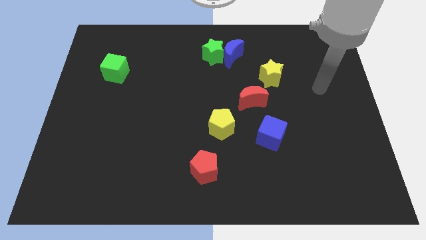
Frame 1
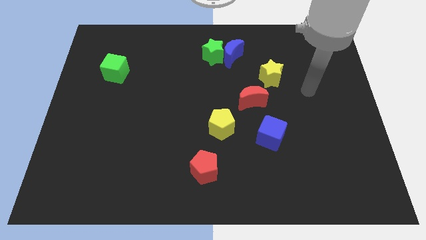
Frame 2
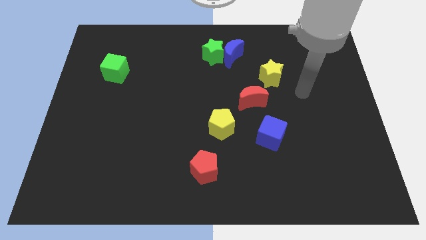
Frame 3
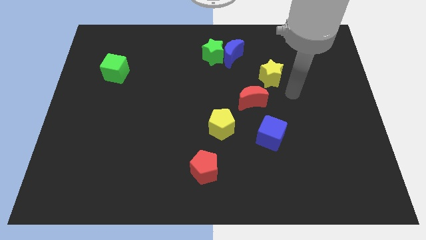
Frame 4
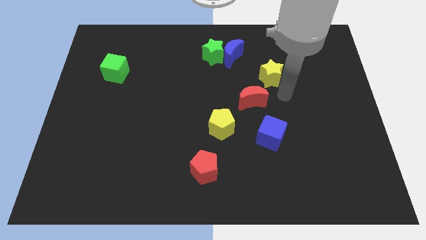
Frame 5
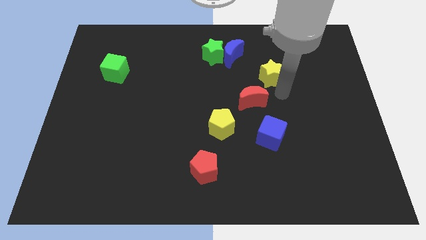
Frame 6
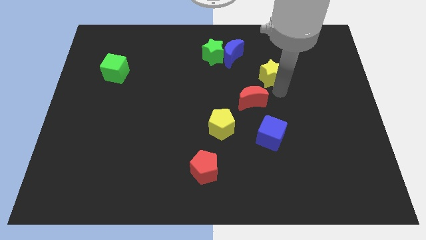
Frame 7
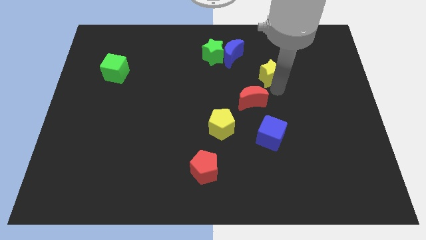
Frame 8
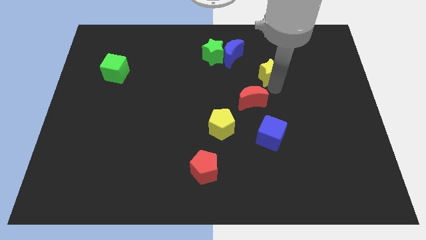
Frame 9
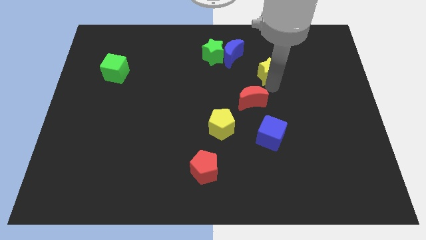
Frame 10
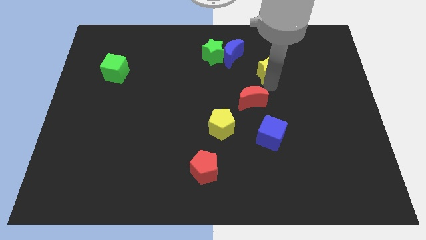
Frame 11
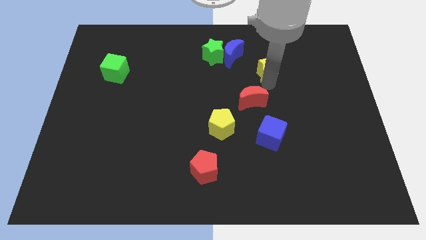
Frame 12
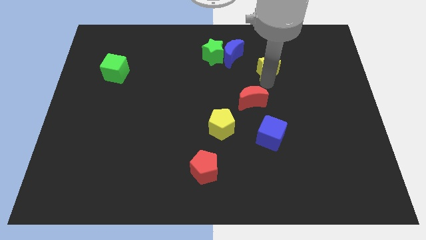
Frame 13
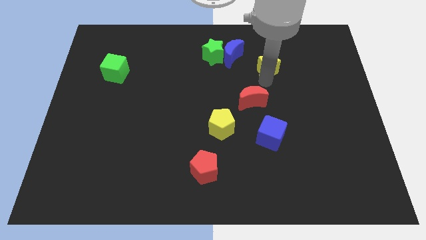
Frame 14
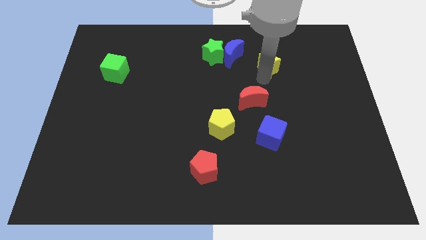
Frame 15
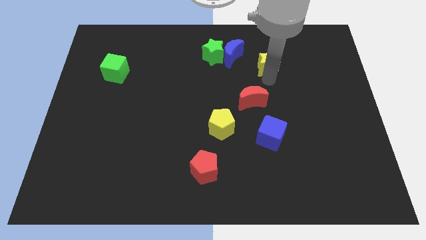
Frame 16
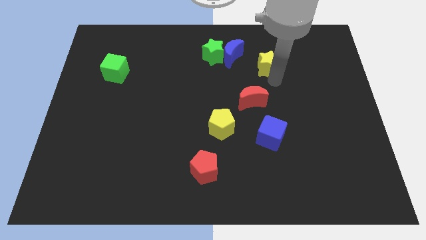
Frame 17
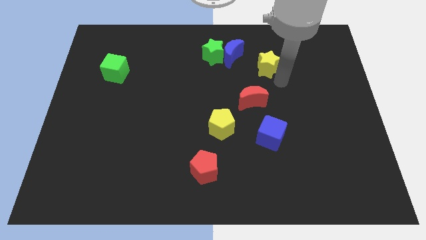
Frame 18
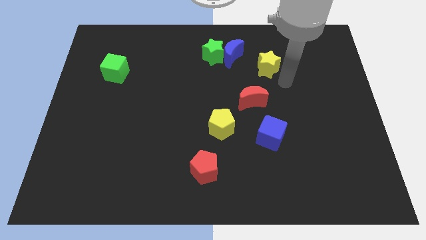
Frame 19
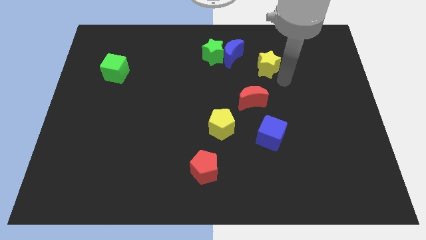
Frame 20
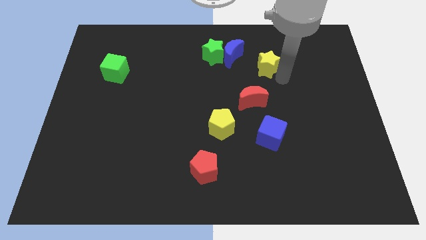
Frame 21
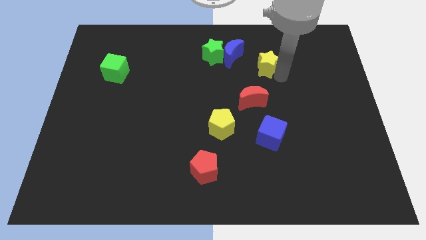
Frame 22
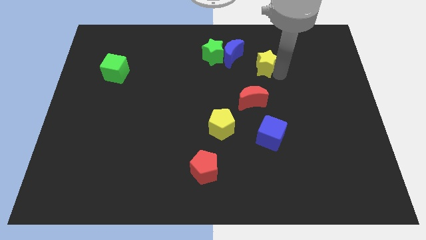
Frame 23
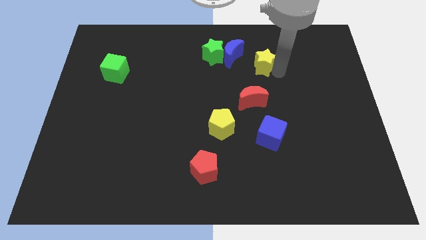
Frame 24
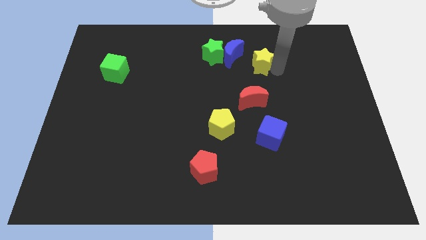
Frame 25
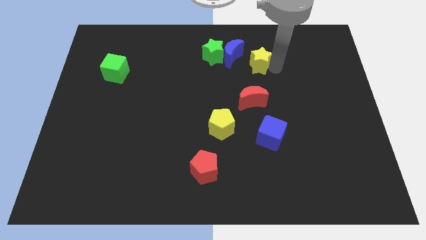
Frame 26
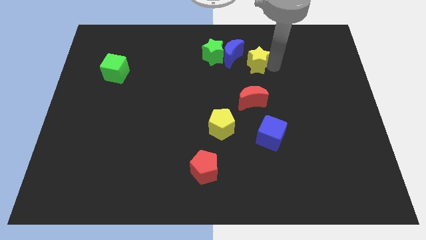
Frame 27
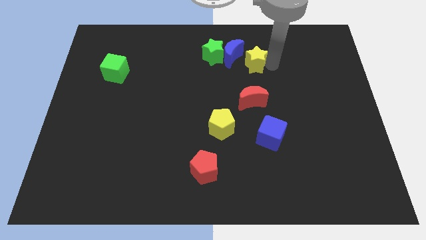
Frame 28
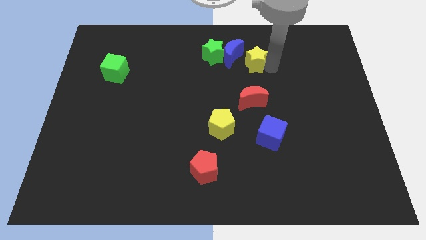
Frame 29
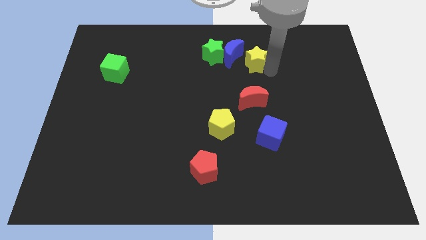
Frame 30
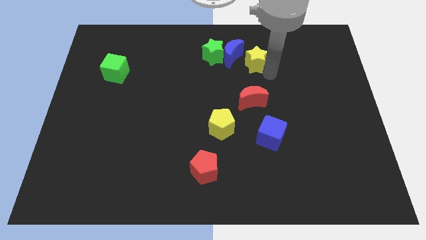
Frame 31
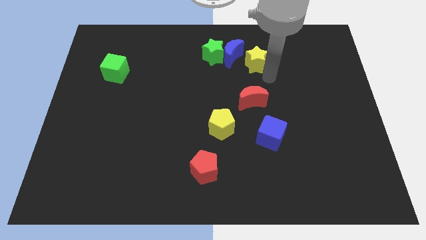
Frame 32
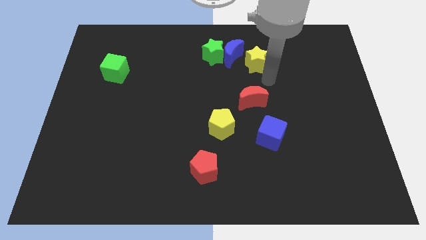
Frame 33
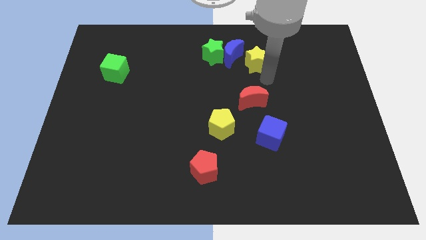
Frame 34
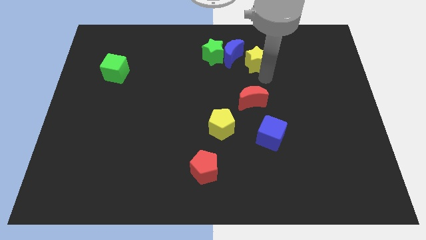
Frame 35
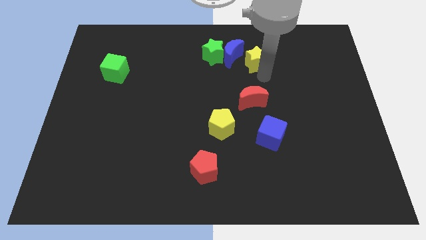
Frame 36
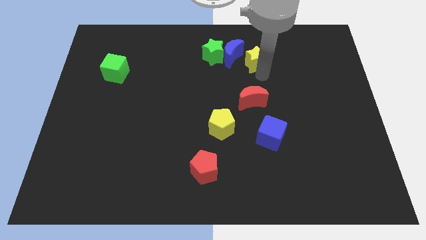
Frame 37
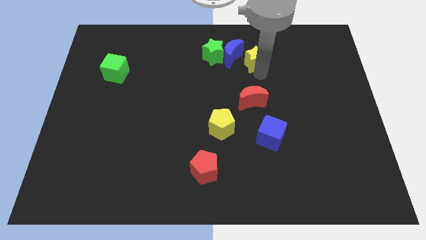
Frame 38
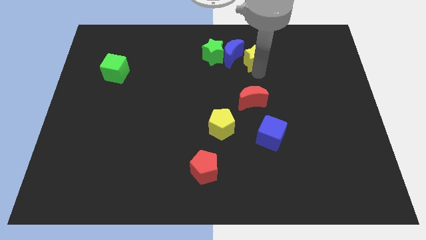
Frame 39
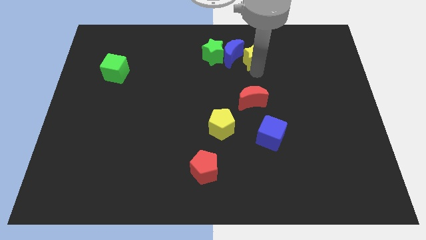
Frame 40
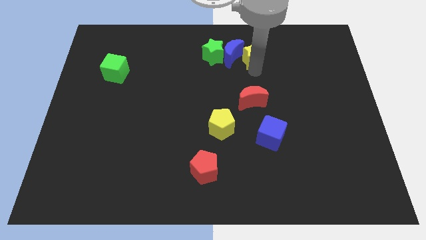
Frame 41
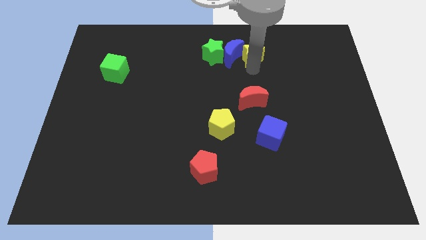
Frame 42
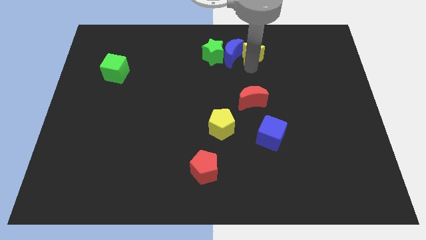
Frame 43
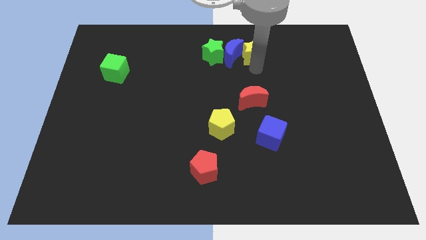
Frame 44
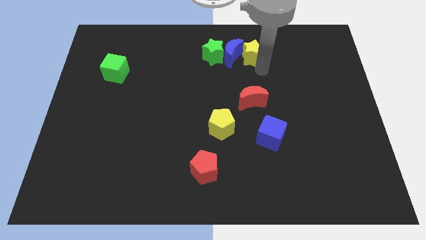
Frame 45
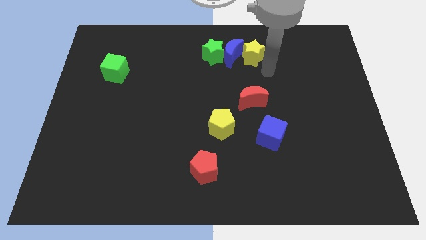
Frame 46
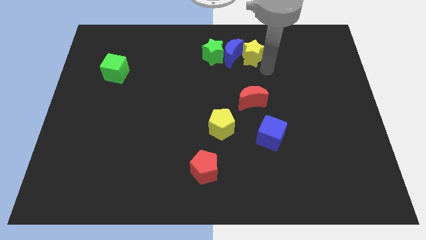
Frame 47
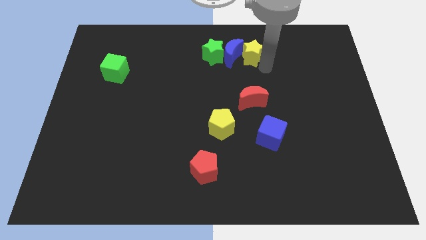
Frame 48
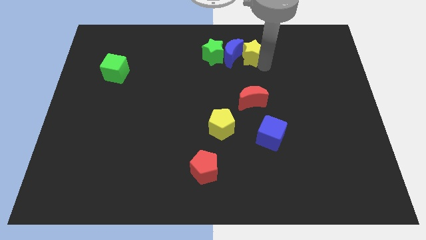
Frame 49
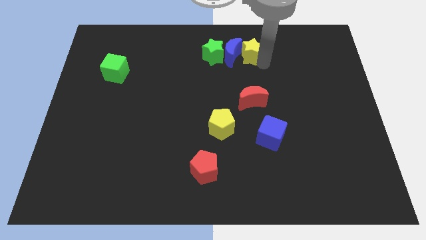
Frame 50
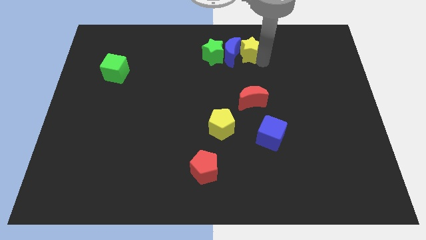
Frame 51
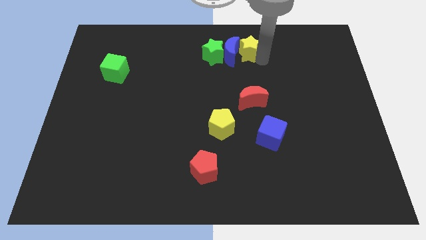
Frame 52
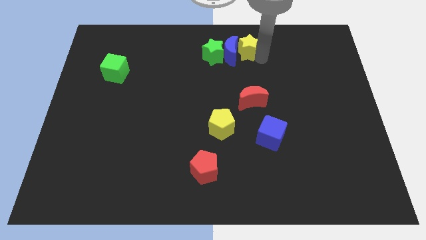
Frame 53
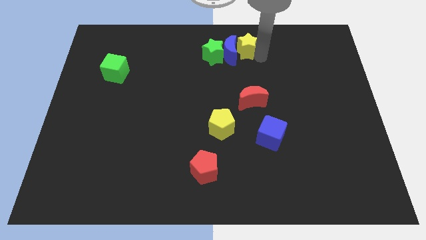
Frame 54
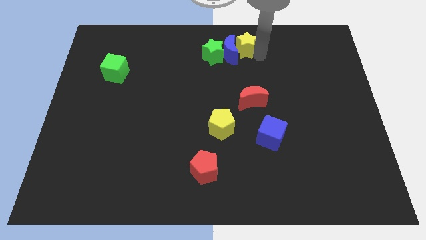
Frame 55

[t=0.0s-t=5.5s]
push the yellow star to the towards your base
